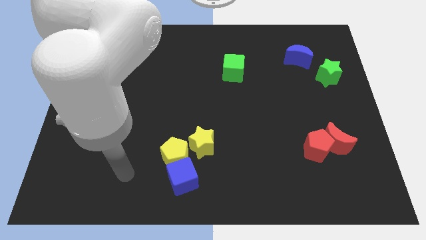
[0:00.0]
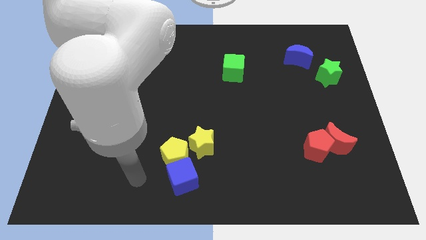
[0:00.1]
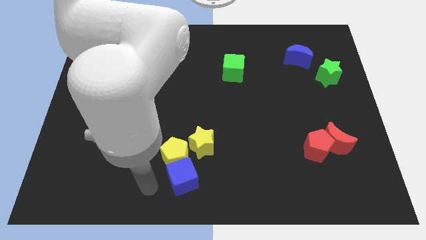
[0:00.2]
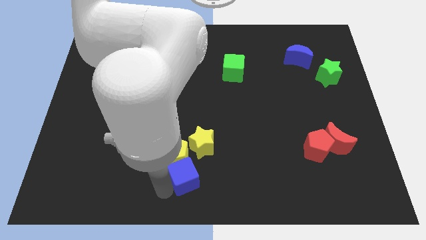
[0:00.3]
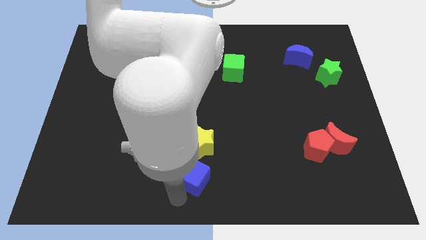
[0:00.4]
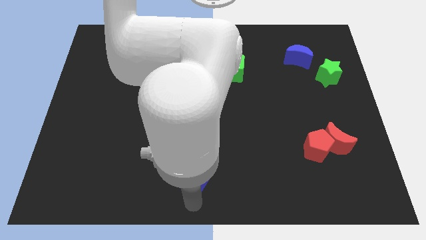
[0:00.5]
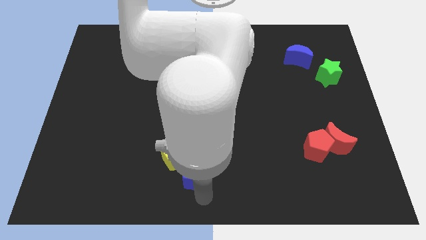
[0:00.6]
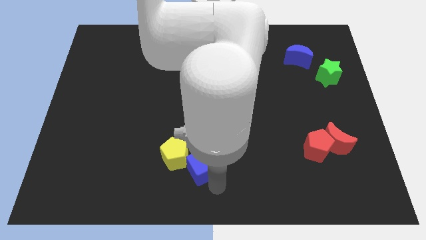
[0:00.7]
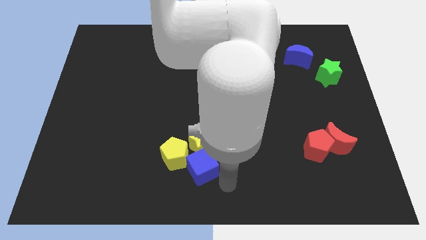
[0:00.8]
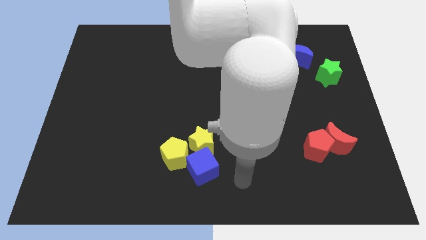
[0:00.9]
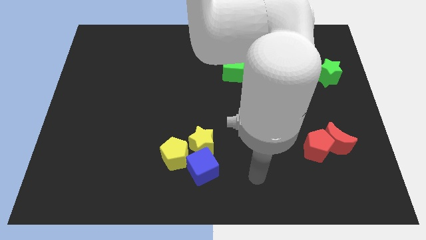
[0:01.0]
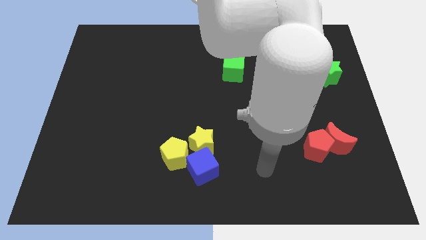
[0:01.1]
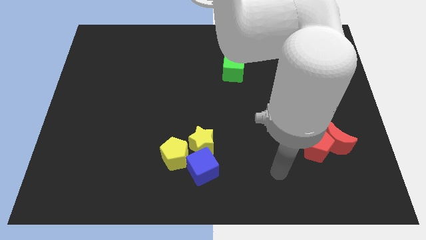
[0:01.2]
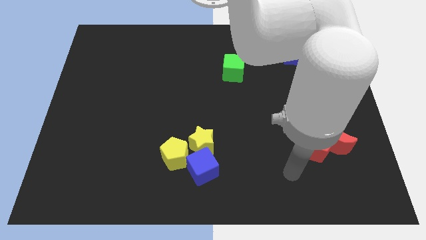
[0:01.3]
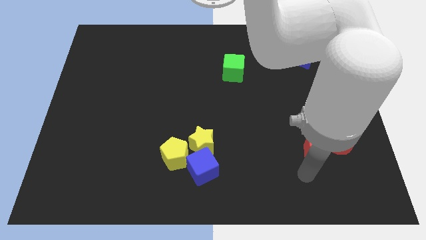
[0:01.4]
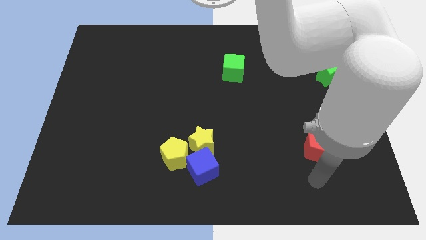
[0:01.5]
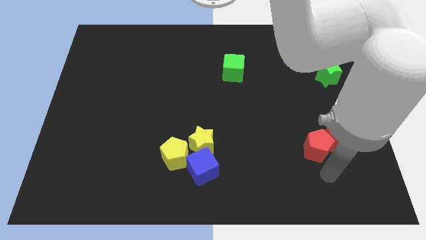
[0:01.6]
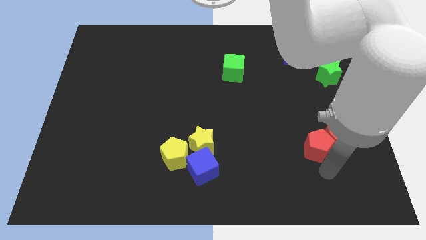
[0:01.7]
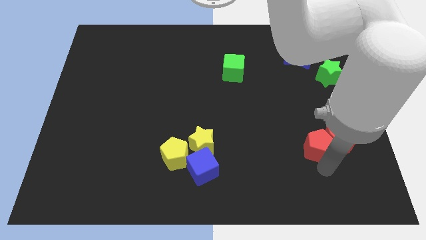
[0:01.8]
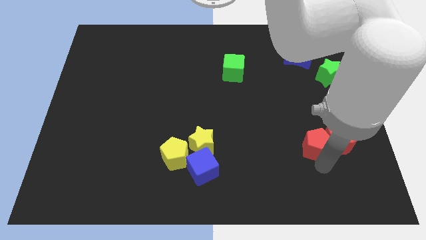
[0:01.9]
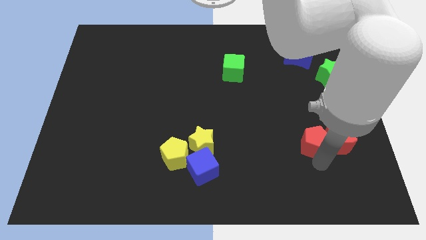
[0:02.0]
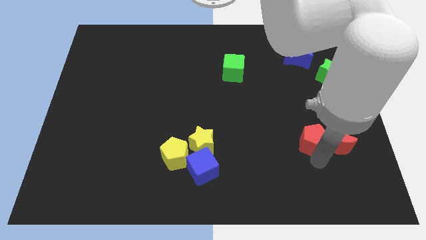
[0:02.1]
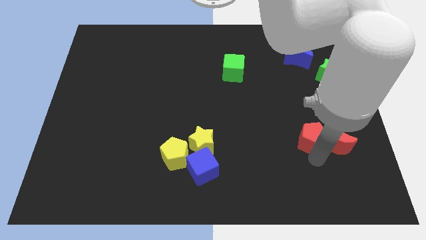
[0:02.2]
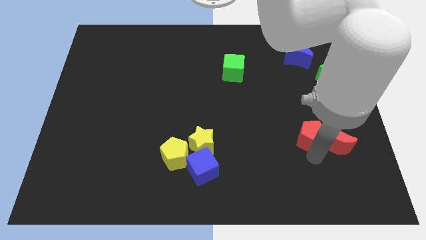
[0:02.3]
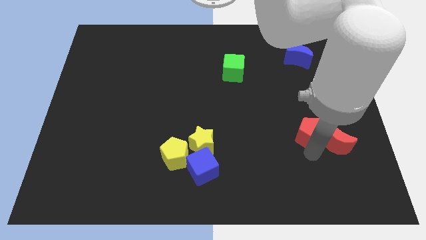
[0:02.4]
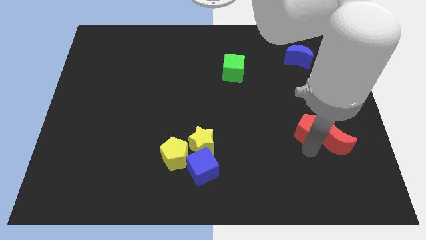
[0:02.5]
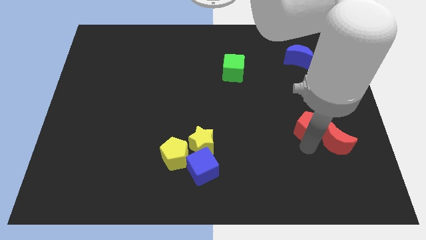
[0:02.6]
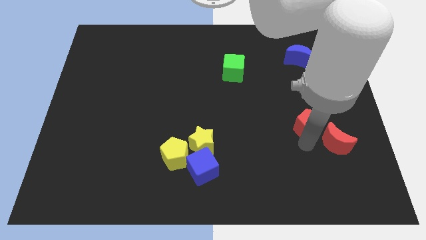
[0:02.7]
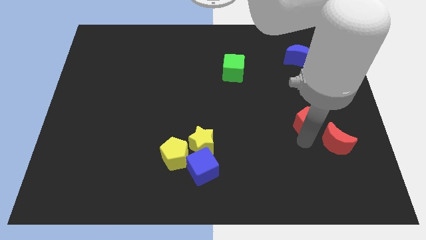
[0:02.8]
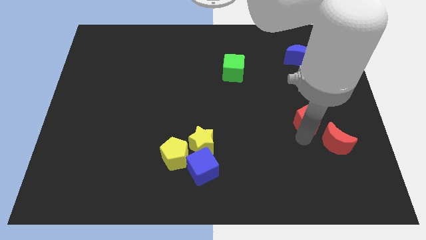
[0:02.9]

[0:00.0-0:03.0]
slide the red pentagon slightly upwards

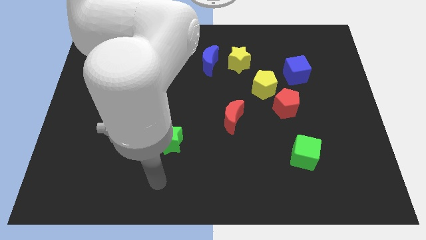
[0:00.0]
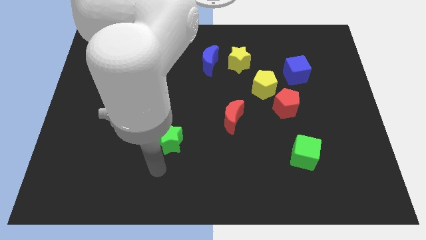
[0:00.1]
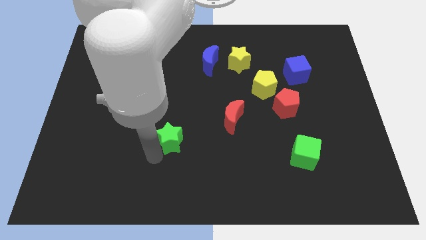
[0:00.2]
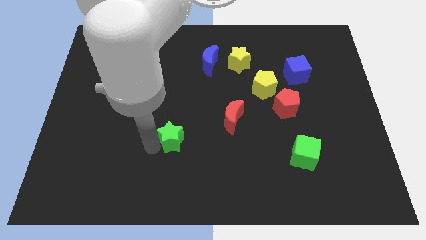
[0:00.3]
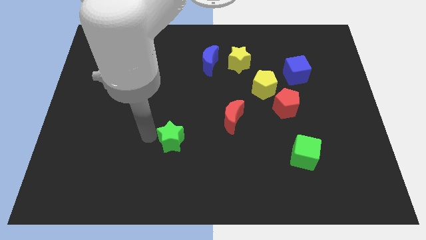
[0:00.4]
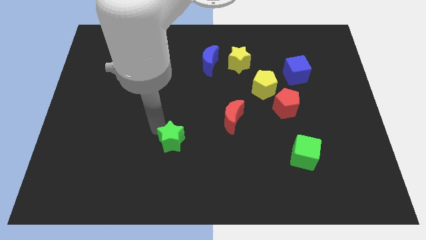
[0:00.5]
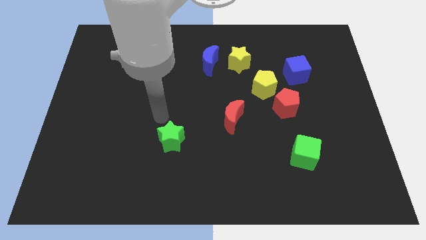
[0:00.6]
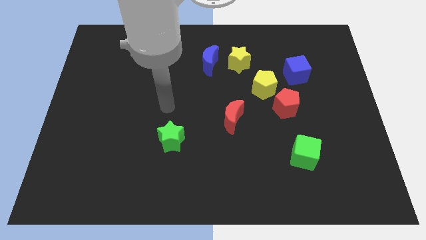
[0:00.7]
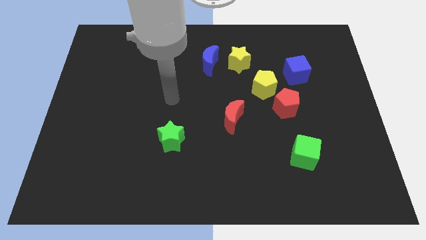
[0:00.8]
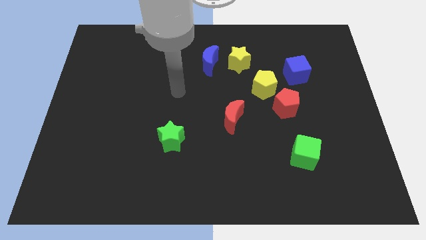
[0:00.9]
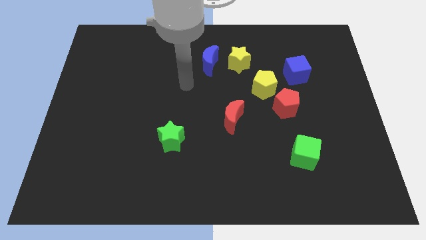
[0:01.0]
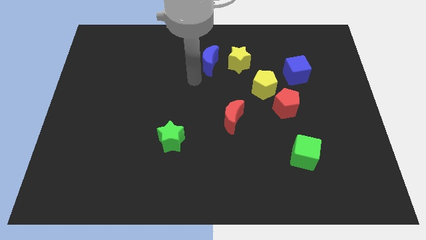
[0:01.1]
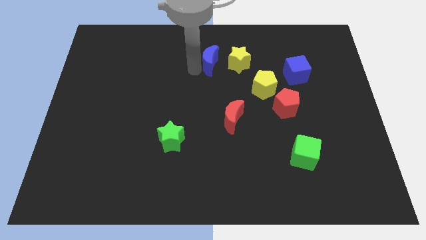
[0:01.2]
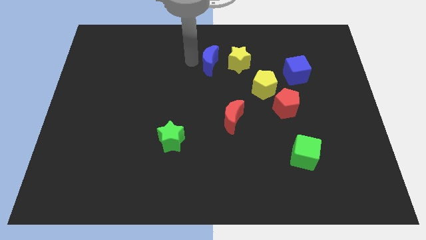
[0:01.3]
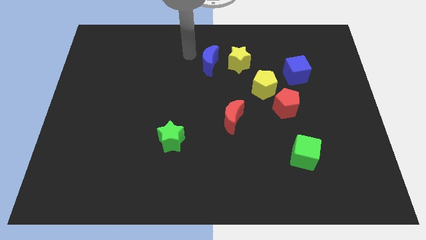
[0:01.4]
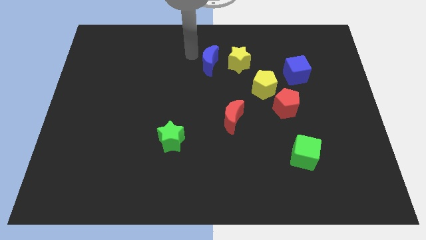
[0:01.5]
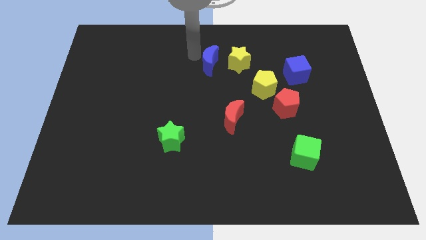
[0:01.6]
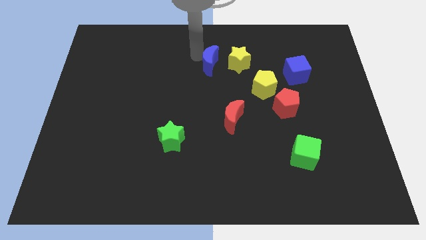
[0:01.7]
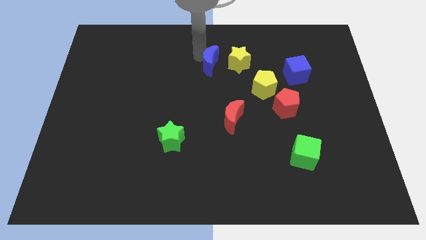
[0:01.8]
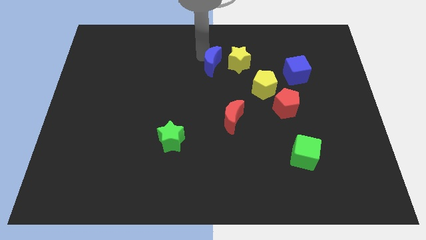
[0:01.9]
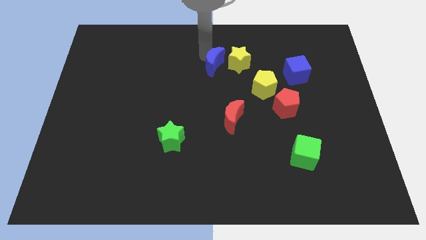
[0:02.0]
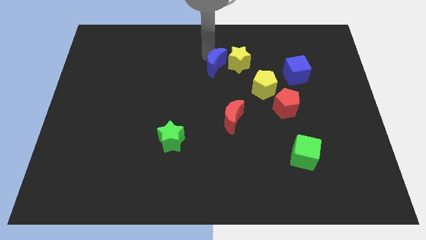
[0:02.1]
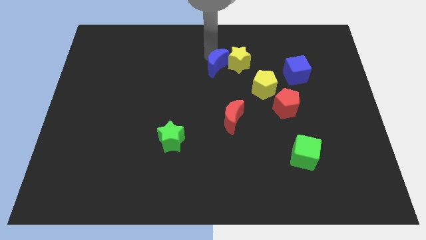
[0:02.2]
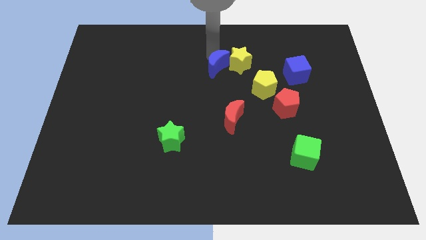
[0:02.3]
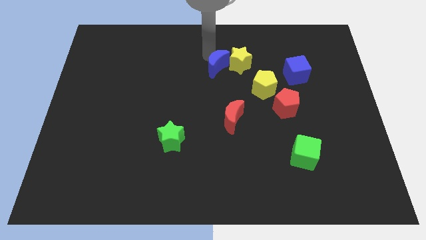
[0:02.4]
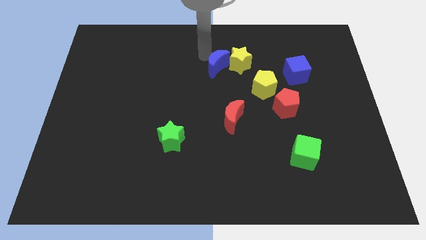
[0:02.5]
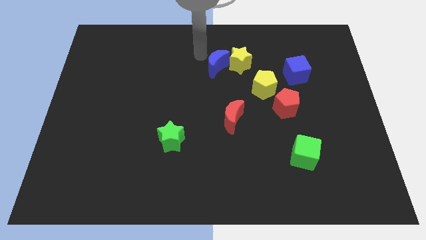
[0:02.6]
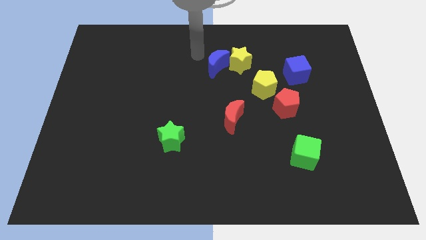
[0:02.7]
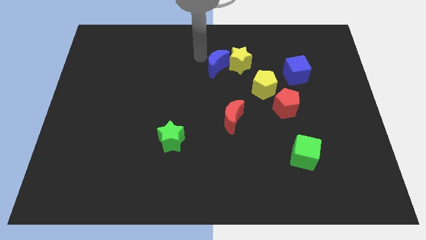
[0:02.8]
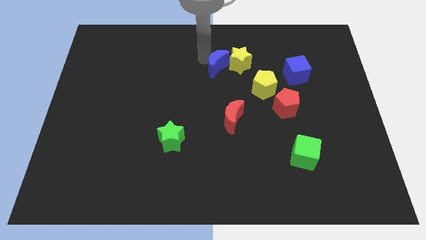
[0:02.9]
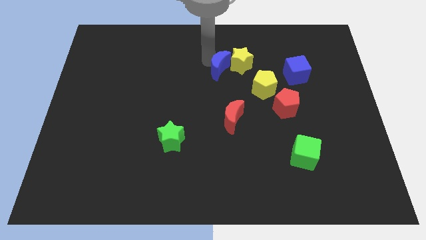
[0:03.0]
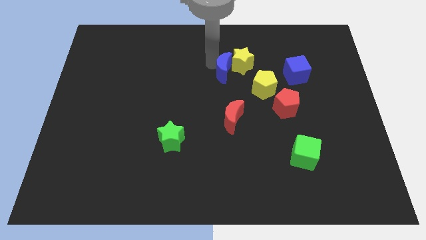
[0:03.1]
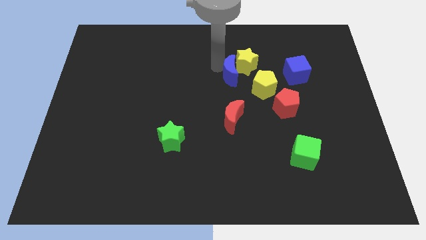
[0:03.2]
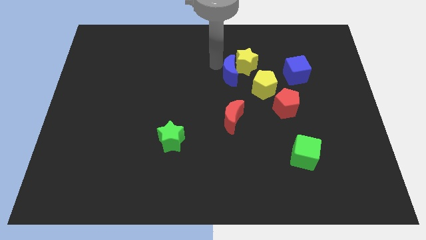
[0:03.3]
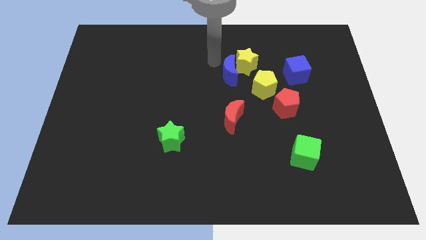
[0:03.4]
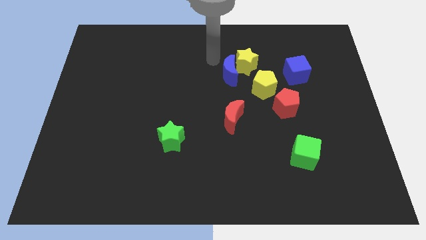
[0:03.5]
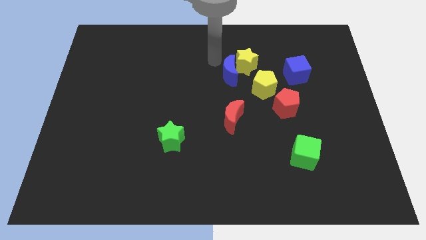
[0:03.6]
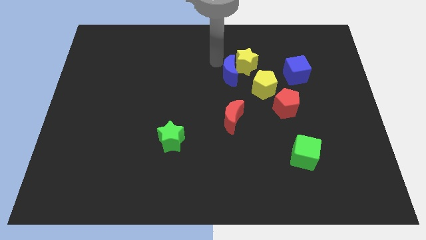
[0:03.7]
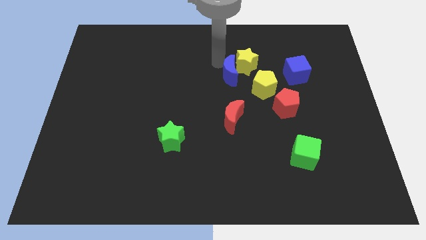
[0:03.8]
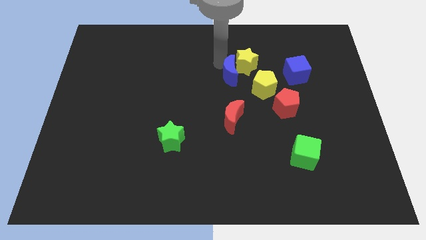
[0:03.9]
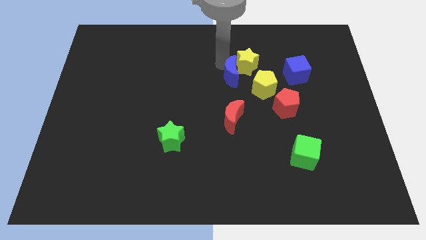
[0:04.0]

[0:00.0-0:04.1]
slightly move the blue moon down and then to the right

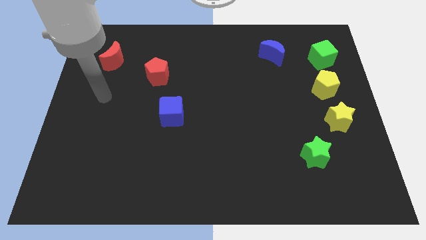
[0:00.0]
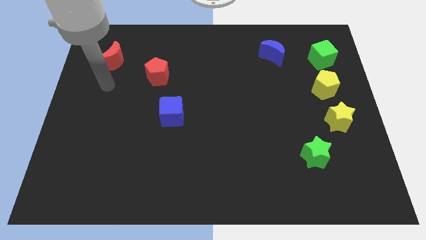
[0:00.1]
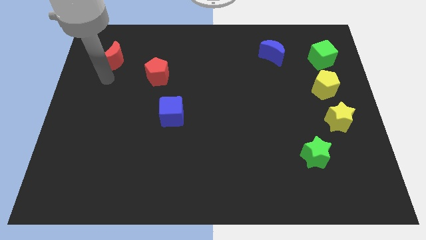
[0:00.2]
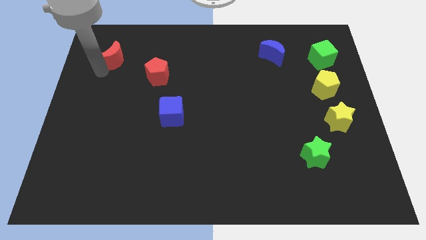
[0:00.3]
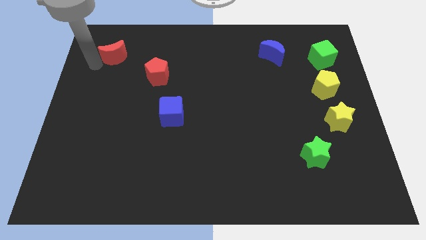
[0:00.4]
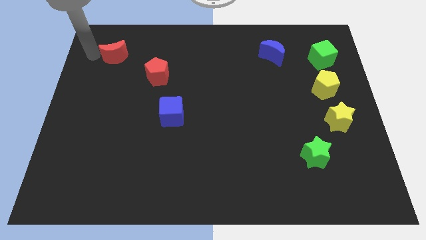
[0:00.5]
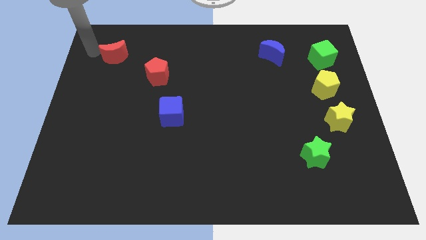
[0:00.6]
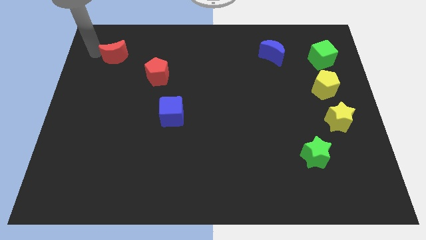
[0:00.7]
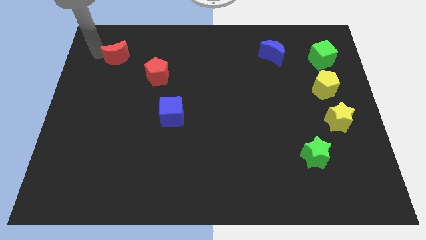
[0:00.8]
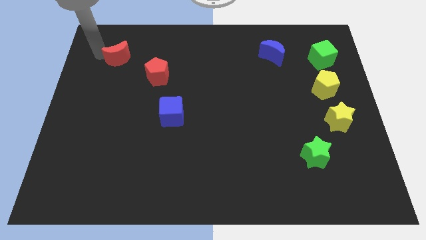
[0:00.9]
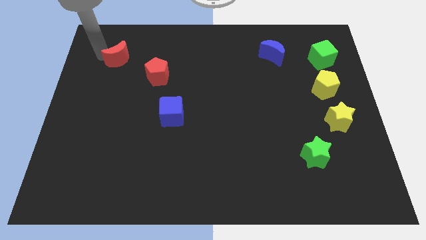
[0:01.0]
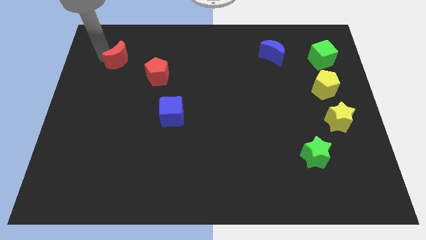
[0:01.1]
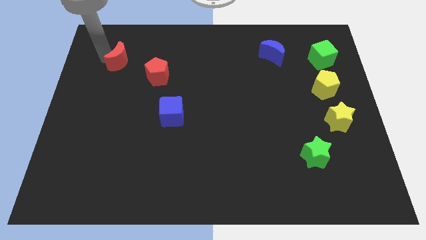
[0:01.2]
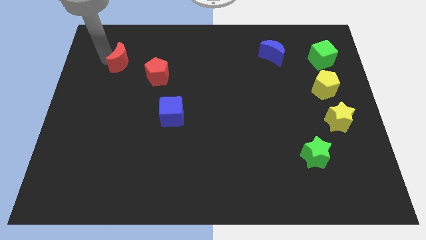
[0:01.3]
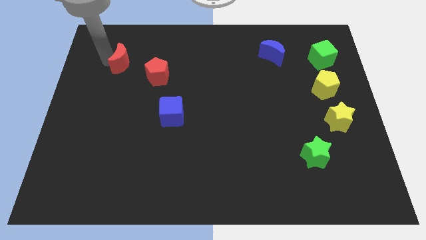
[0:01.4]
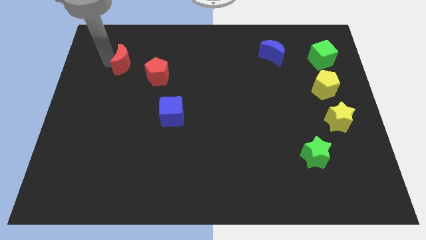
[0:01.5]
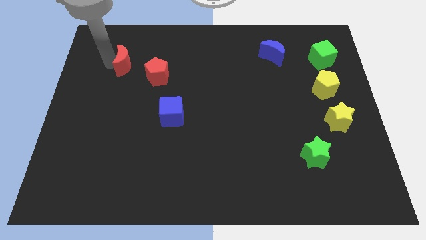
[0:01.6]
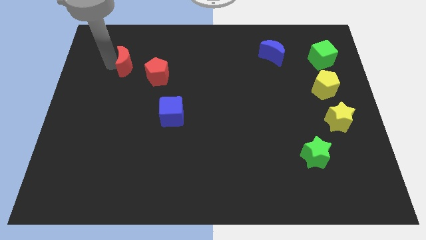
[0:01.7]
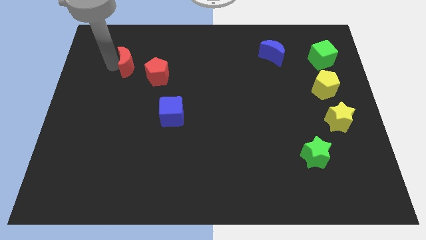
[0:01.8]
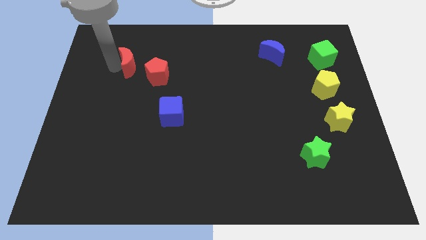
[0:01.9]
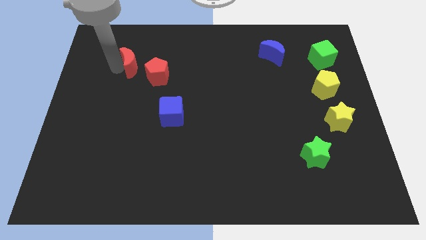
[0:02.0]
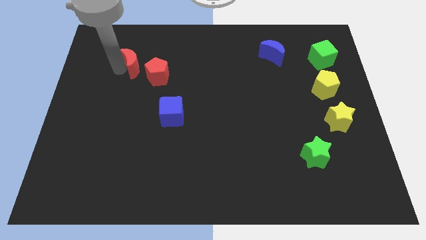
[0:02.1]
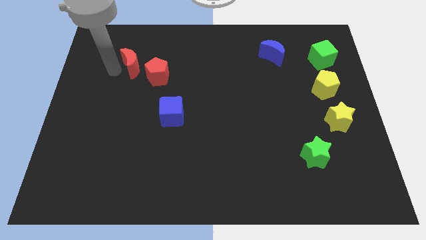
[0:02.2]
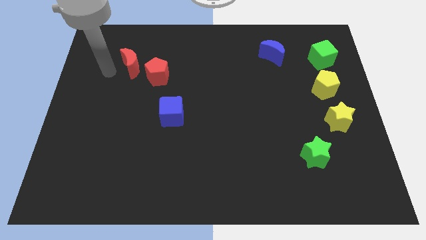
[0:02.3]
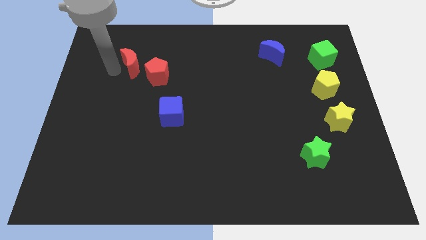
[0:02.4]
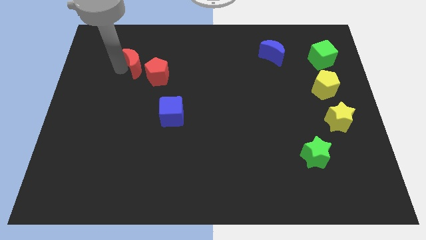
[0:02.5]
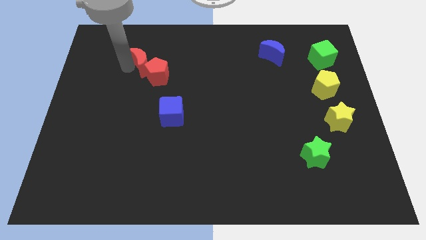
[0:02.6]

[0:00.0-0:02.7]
push the red moon right somewhat
